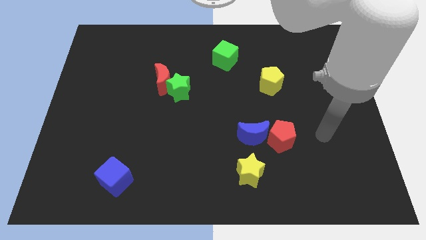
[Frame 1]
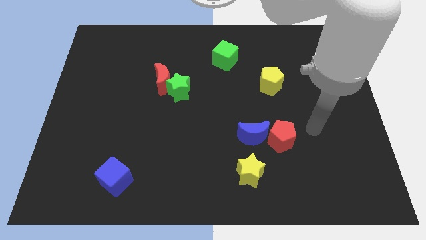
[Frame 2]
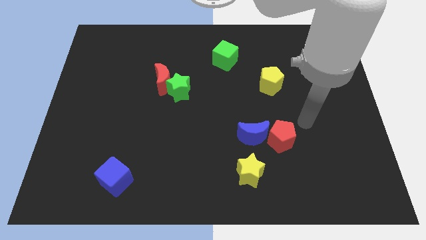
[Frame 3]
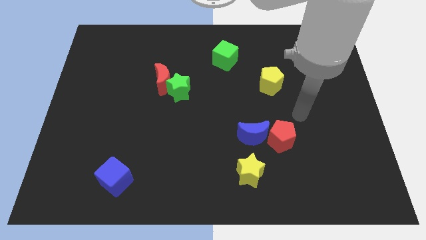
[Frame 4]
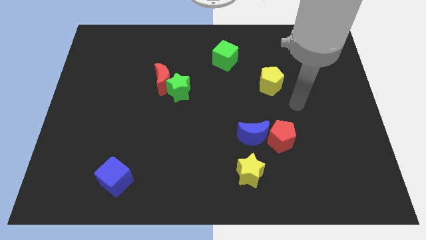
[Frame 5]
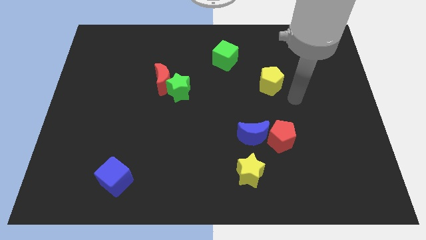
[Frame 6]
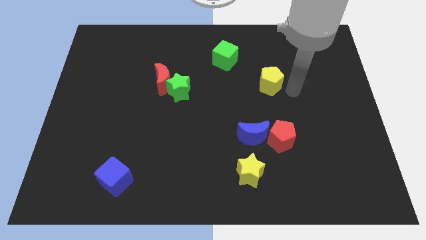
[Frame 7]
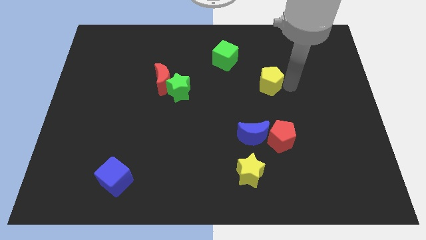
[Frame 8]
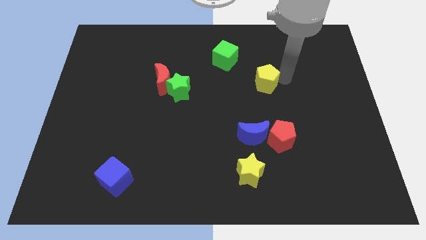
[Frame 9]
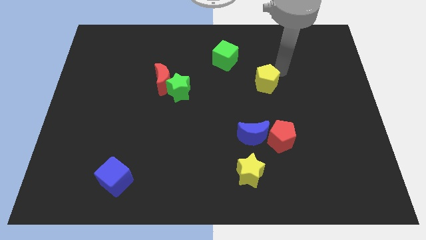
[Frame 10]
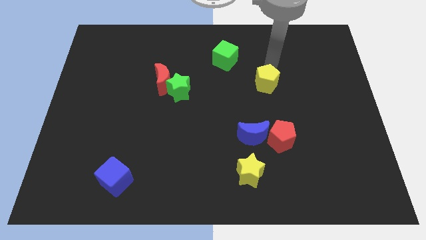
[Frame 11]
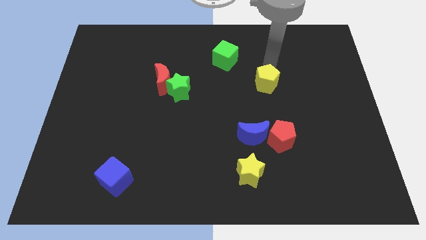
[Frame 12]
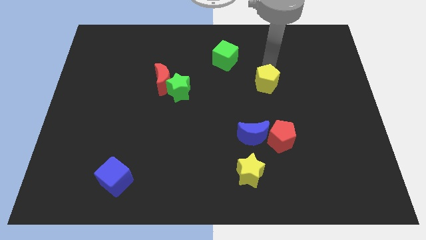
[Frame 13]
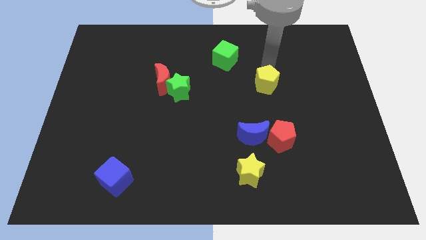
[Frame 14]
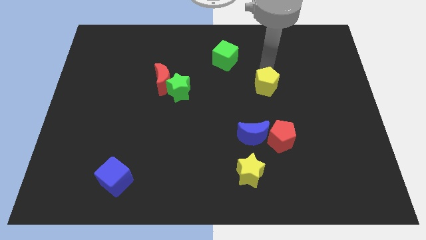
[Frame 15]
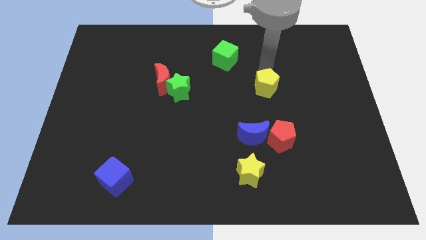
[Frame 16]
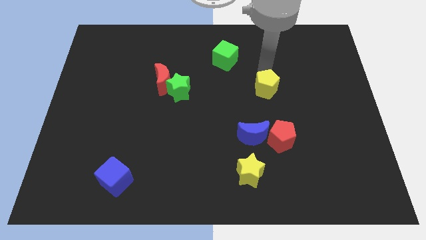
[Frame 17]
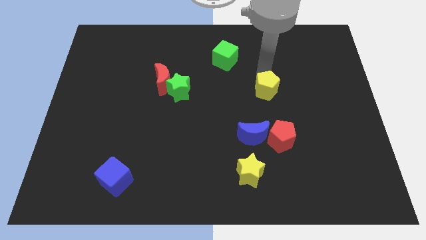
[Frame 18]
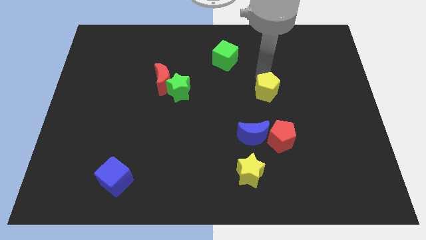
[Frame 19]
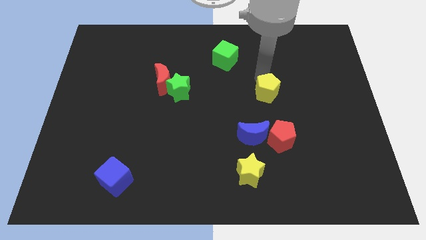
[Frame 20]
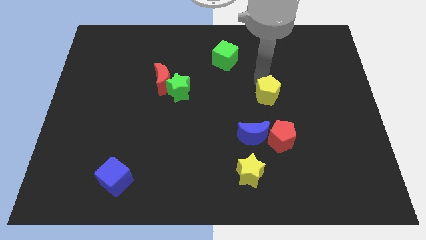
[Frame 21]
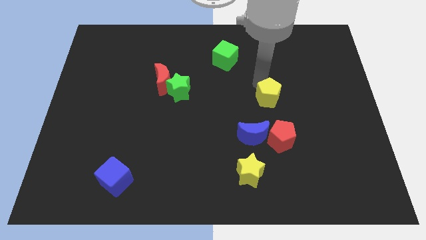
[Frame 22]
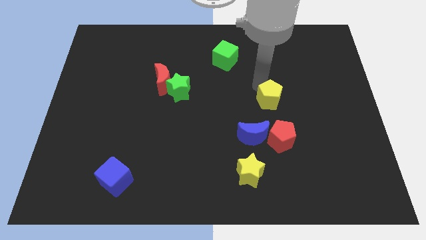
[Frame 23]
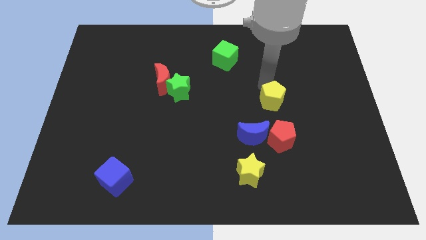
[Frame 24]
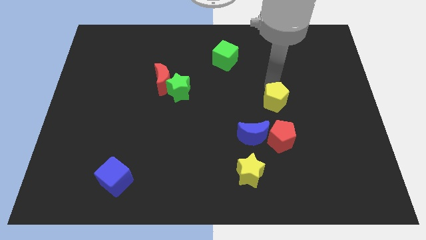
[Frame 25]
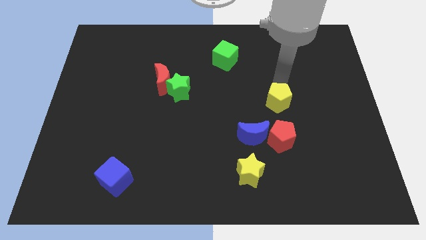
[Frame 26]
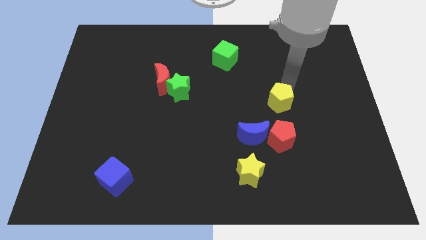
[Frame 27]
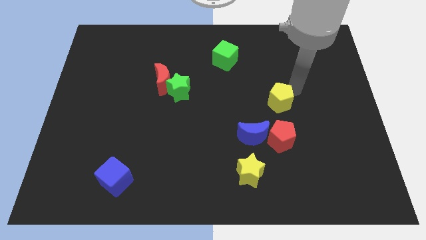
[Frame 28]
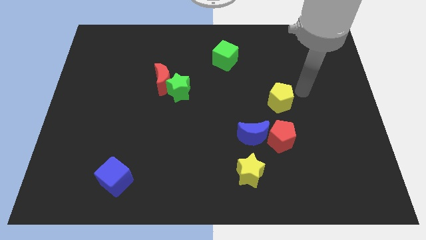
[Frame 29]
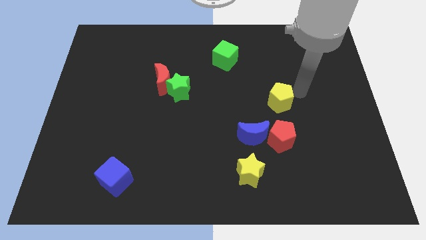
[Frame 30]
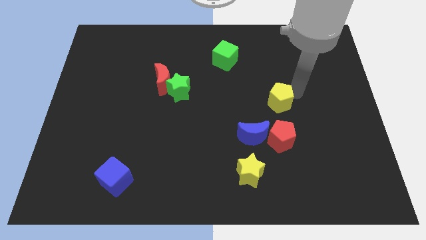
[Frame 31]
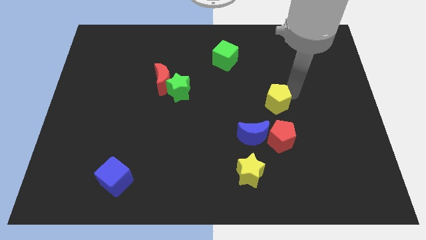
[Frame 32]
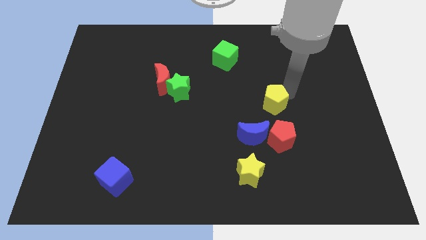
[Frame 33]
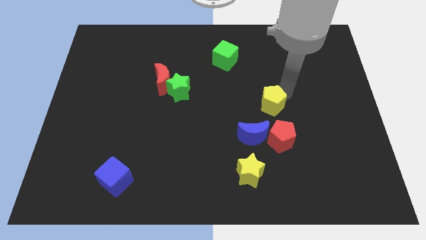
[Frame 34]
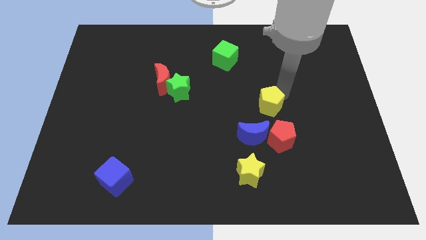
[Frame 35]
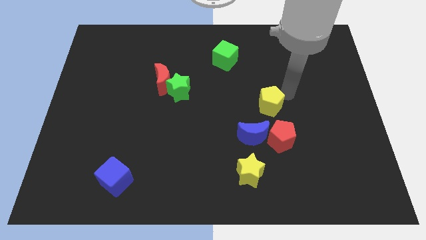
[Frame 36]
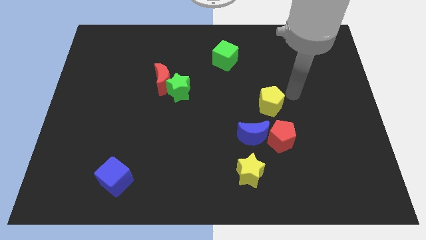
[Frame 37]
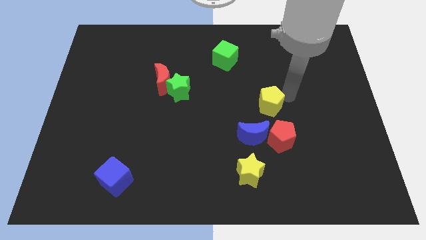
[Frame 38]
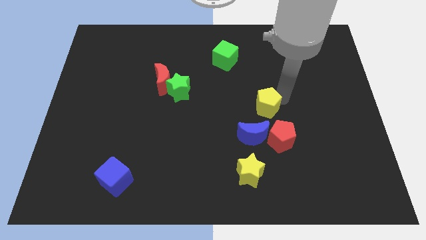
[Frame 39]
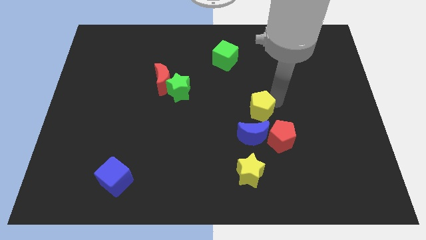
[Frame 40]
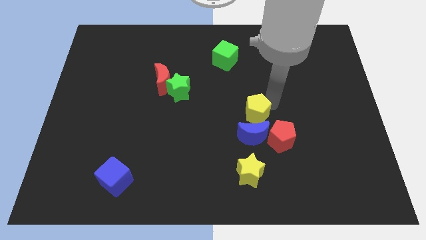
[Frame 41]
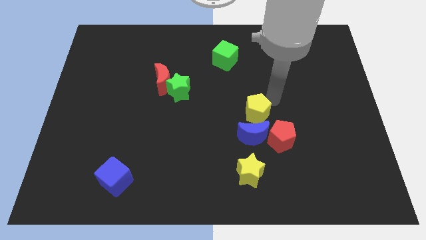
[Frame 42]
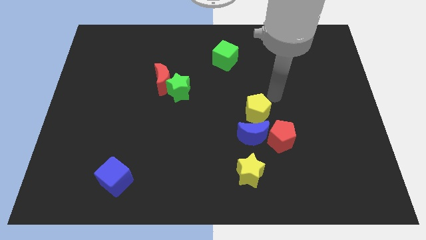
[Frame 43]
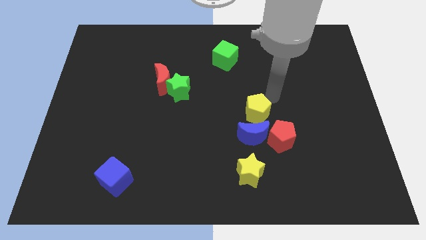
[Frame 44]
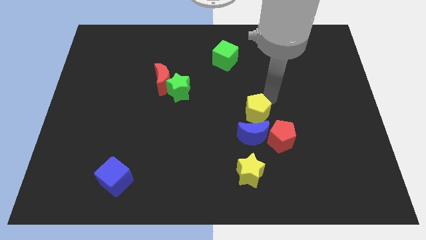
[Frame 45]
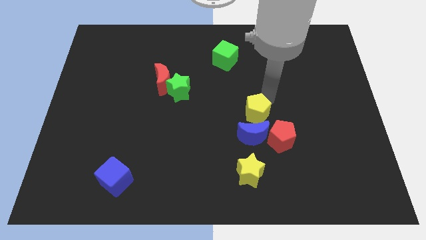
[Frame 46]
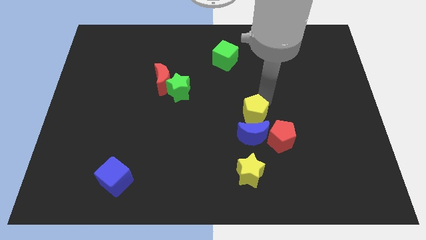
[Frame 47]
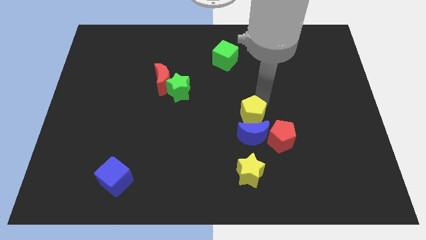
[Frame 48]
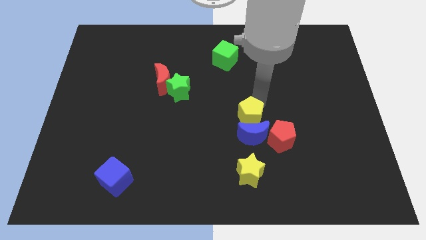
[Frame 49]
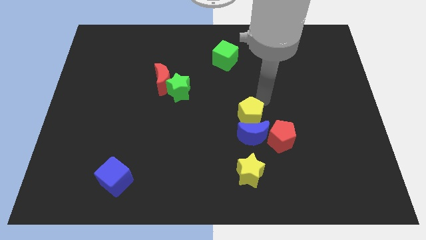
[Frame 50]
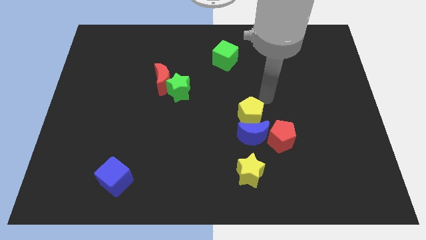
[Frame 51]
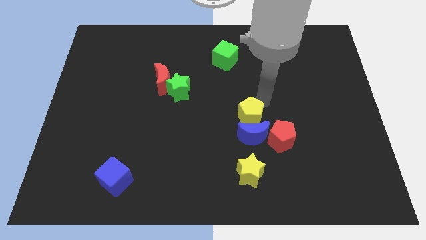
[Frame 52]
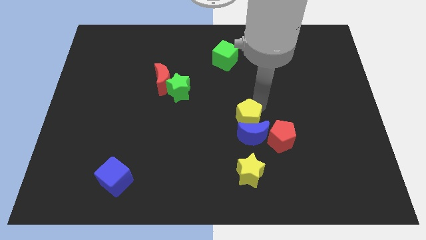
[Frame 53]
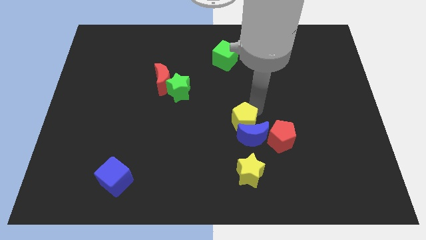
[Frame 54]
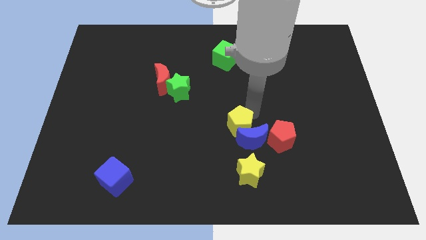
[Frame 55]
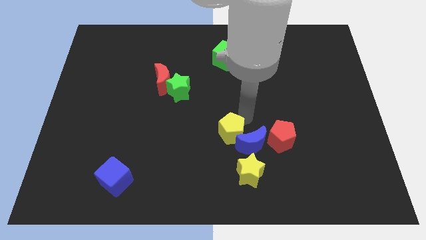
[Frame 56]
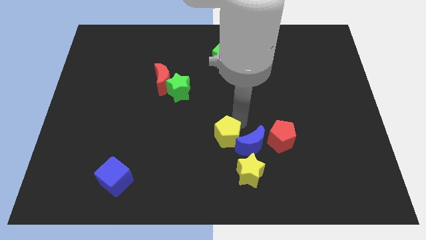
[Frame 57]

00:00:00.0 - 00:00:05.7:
move the yellow pentagon diagonally up and to the left of the yellow star

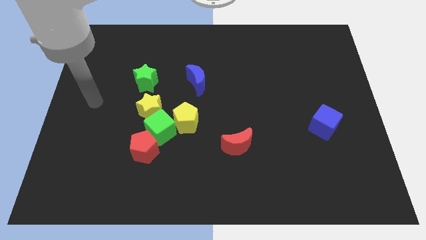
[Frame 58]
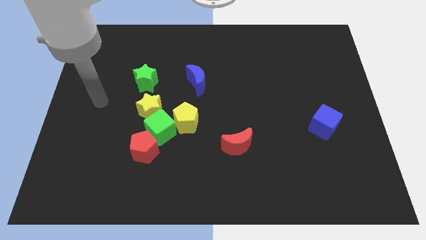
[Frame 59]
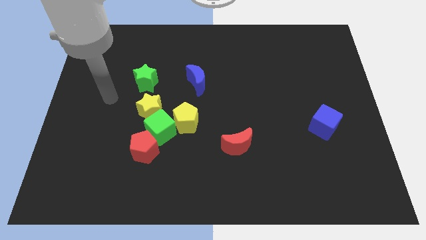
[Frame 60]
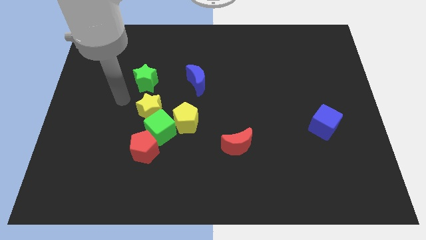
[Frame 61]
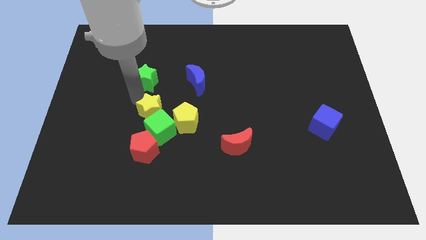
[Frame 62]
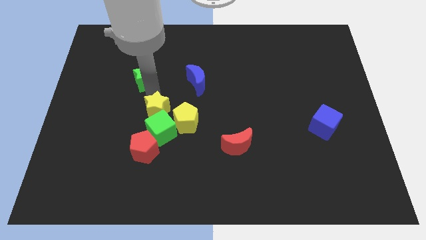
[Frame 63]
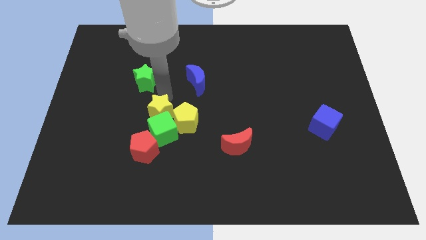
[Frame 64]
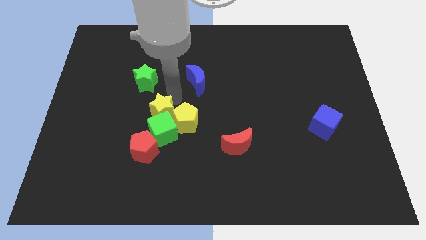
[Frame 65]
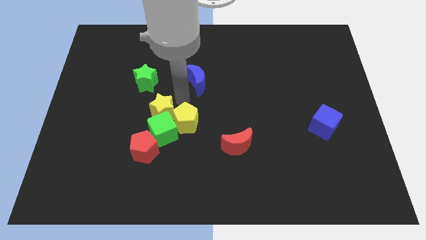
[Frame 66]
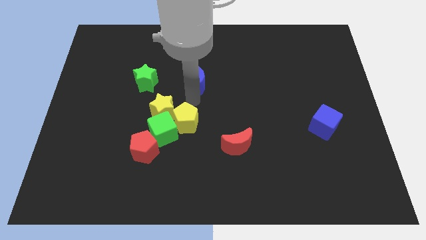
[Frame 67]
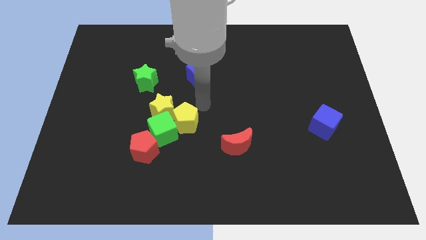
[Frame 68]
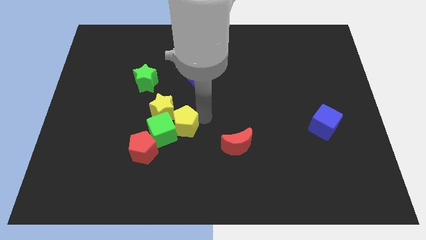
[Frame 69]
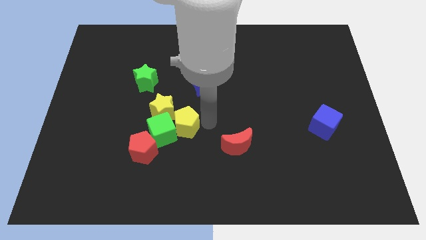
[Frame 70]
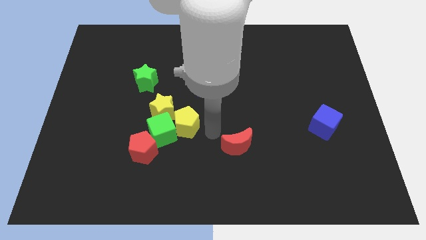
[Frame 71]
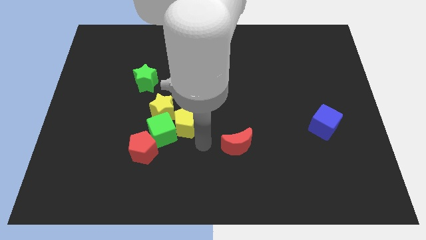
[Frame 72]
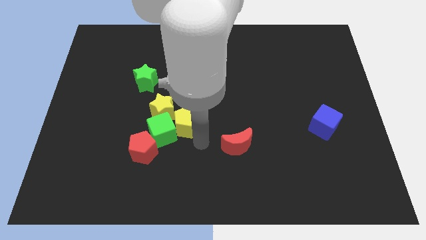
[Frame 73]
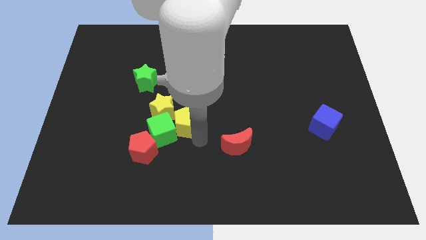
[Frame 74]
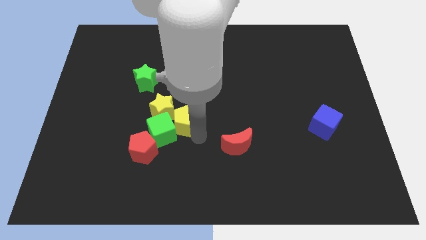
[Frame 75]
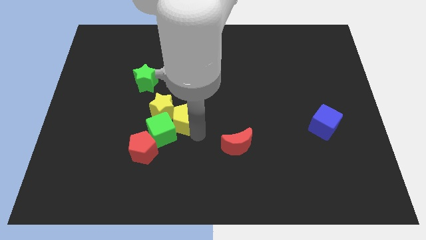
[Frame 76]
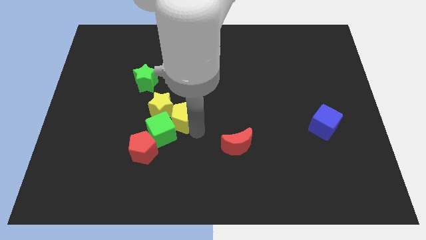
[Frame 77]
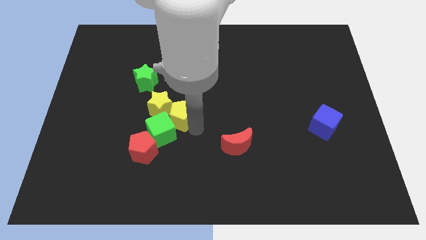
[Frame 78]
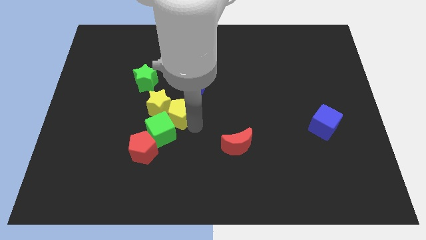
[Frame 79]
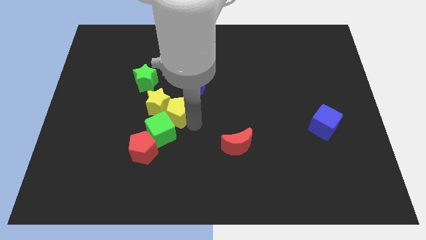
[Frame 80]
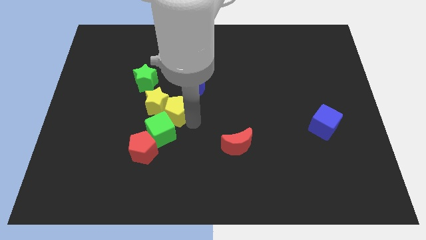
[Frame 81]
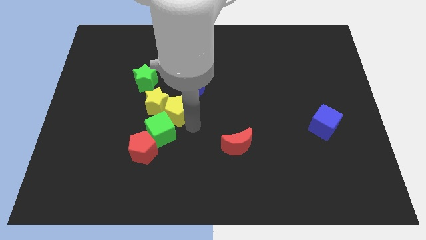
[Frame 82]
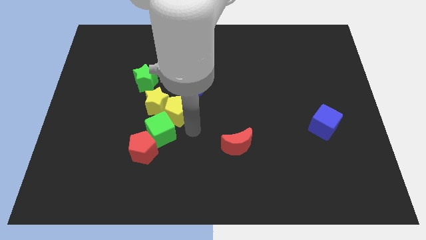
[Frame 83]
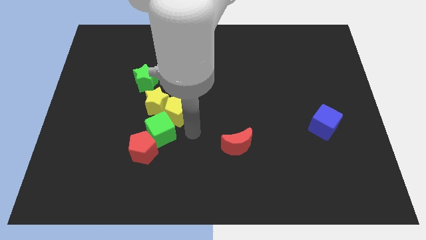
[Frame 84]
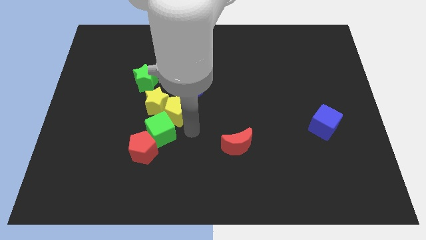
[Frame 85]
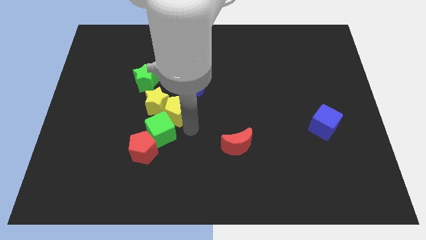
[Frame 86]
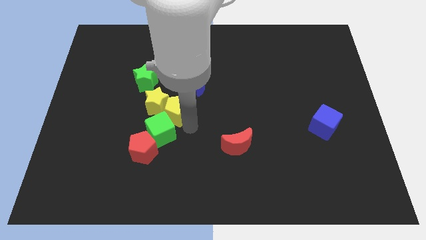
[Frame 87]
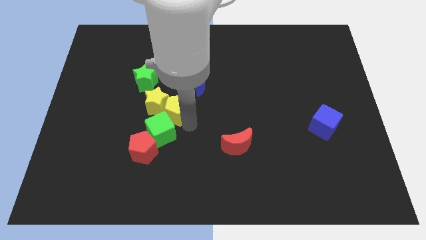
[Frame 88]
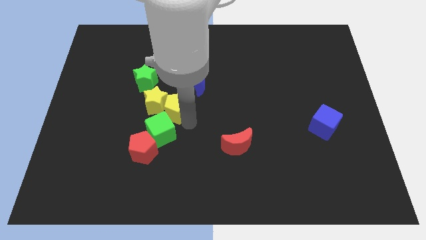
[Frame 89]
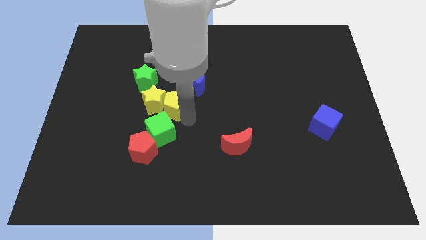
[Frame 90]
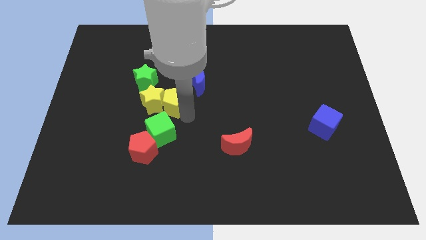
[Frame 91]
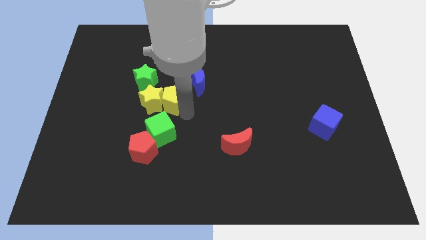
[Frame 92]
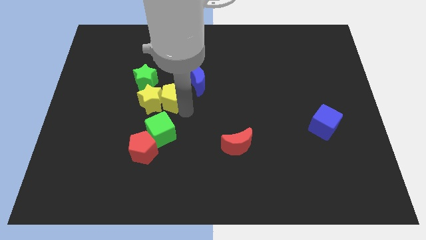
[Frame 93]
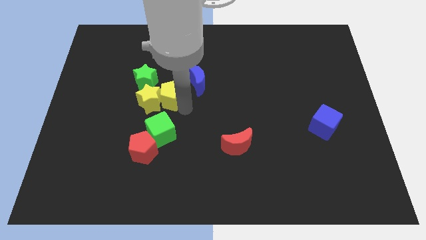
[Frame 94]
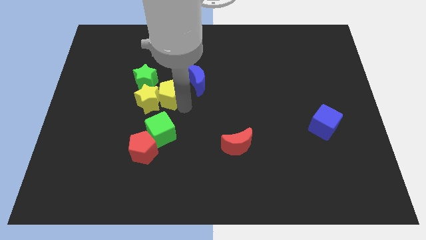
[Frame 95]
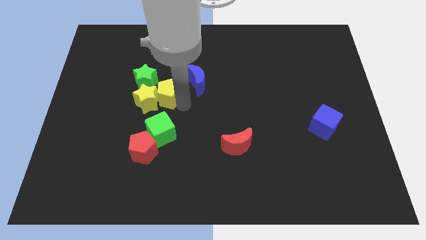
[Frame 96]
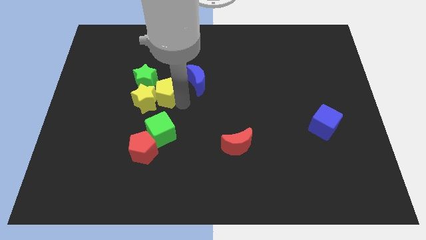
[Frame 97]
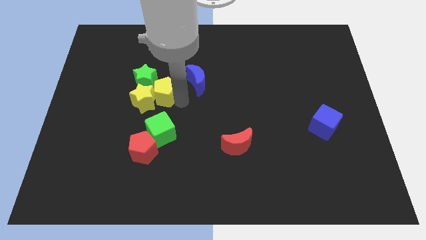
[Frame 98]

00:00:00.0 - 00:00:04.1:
put the yellow pentagon to the top side of the red pentagon
